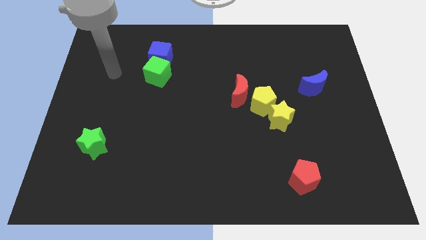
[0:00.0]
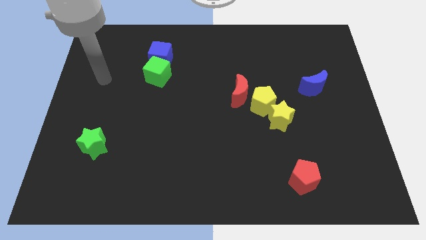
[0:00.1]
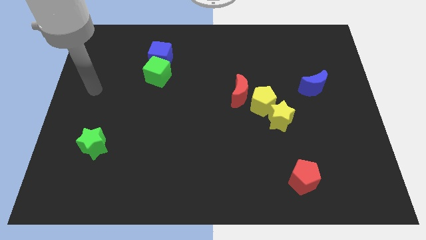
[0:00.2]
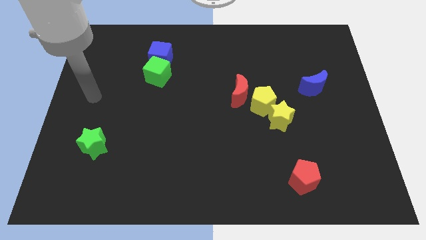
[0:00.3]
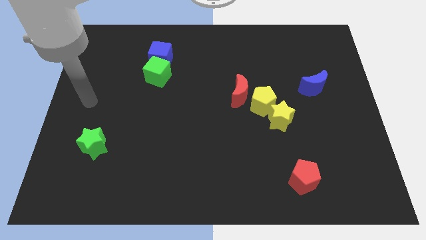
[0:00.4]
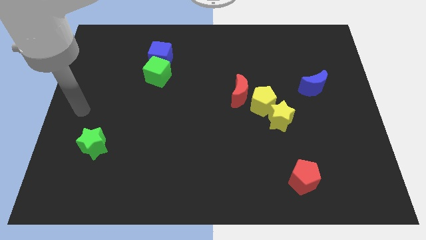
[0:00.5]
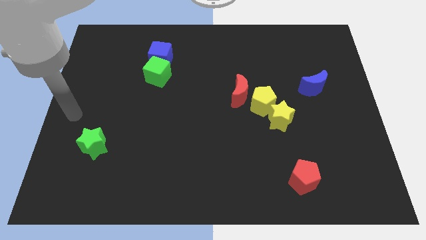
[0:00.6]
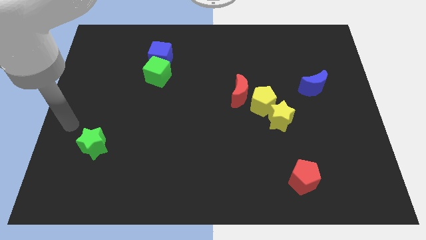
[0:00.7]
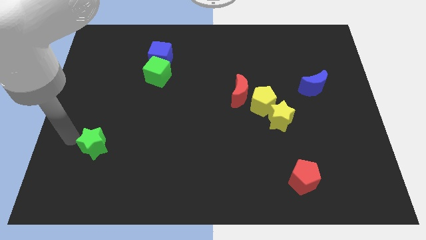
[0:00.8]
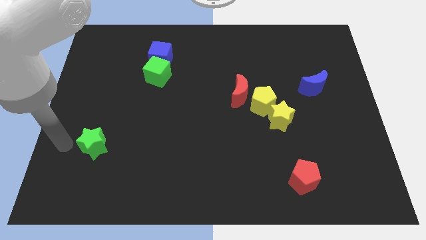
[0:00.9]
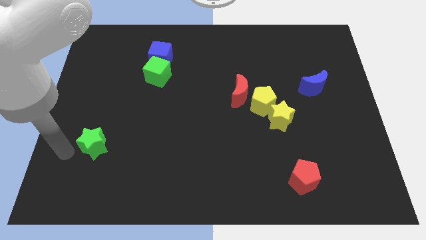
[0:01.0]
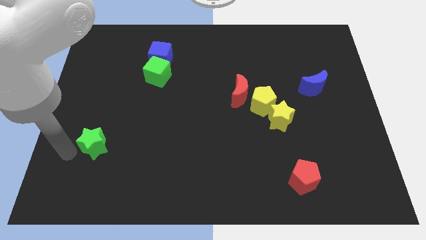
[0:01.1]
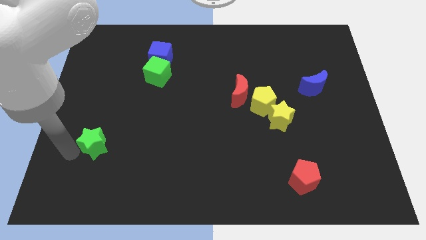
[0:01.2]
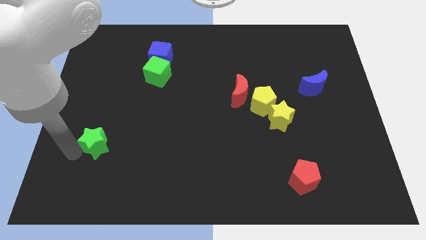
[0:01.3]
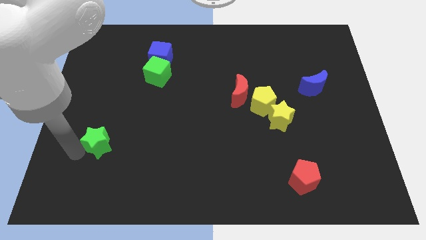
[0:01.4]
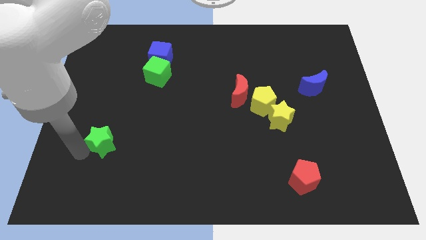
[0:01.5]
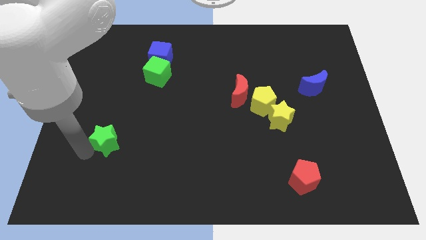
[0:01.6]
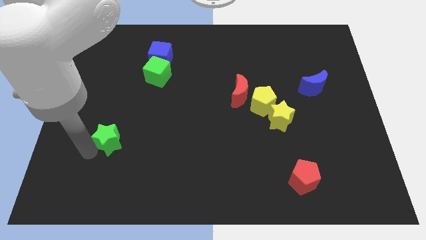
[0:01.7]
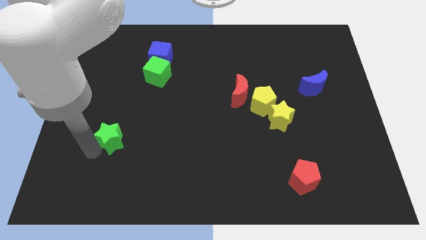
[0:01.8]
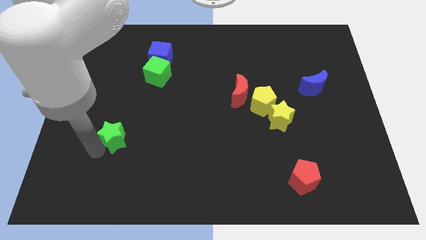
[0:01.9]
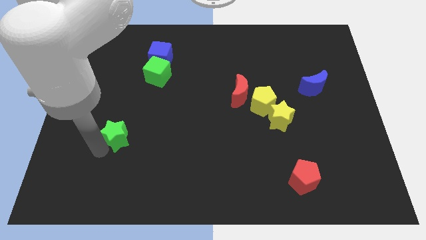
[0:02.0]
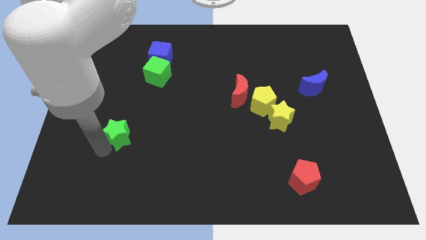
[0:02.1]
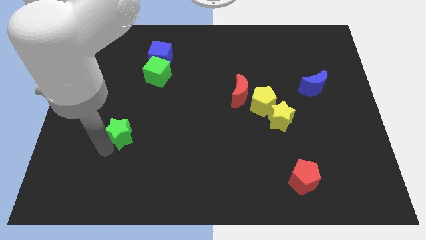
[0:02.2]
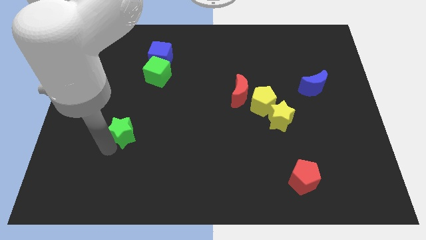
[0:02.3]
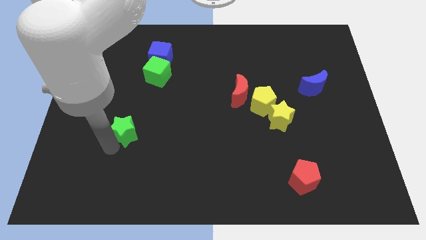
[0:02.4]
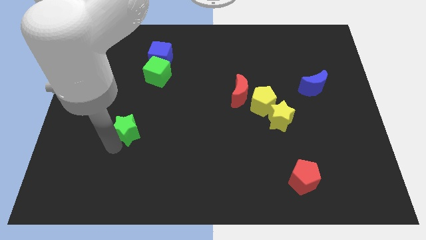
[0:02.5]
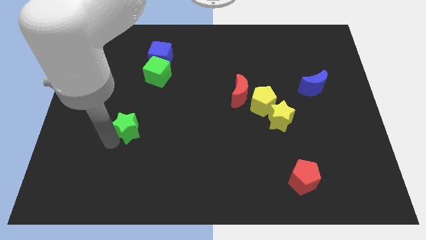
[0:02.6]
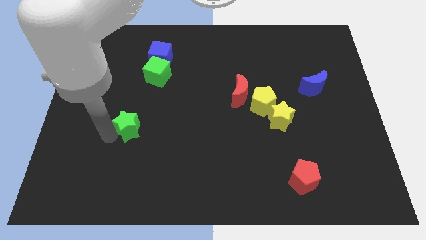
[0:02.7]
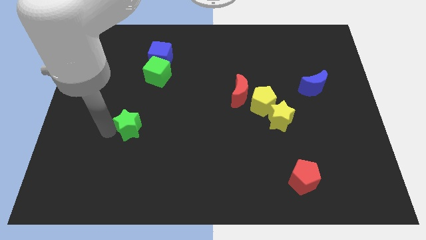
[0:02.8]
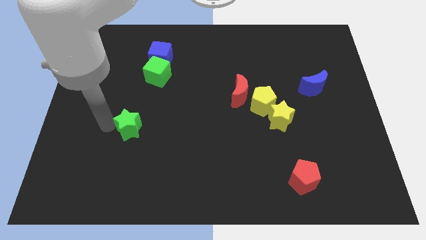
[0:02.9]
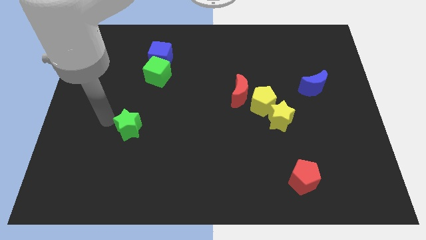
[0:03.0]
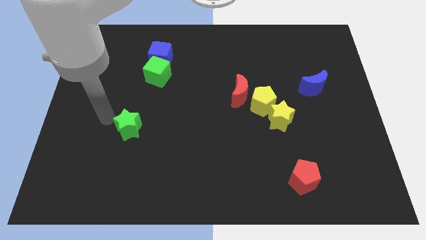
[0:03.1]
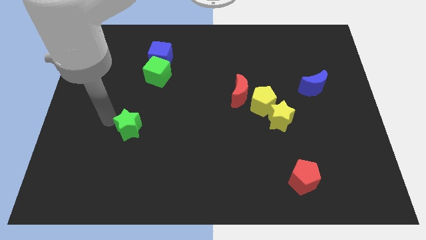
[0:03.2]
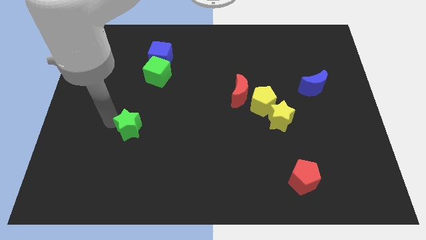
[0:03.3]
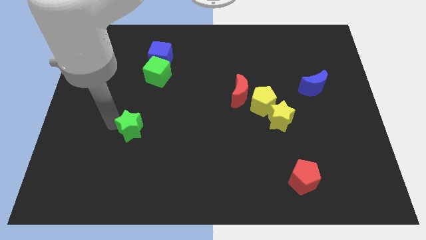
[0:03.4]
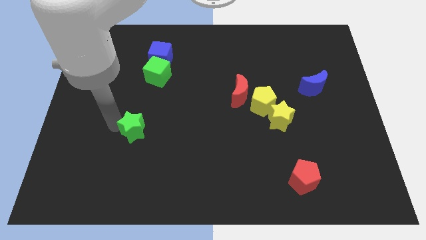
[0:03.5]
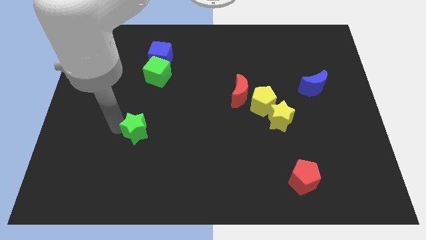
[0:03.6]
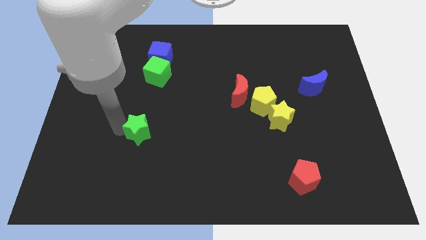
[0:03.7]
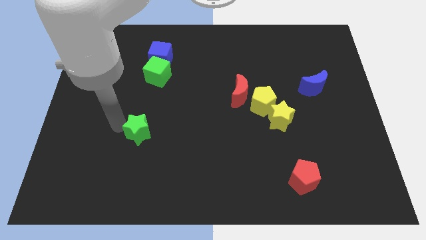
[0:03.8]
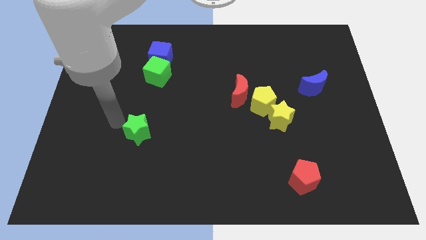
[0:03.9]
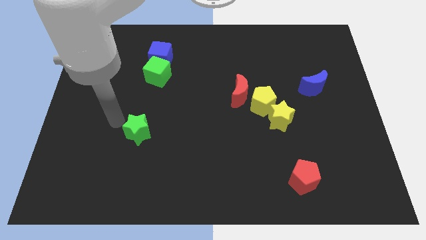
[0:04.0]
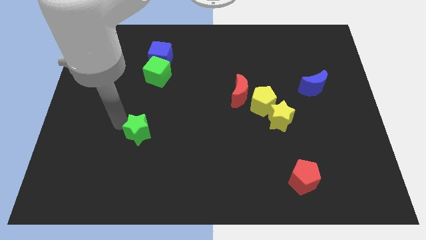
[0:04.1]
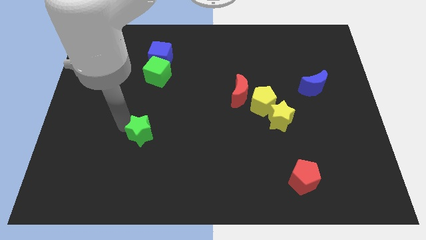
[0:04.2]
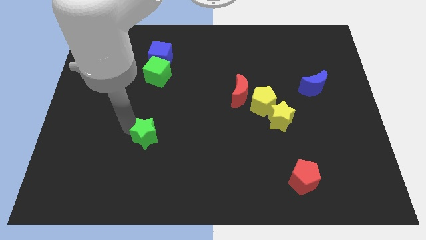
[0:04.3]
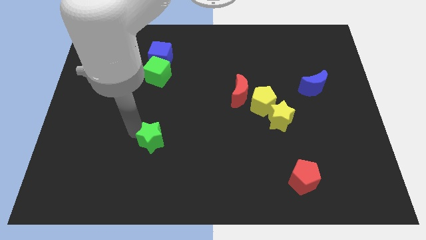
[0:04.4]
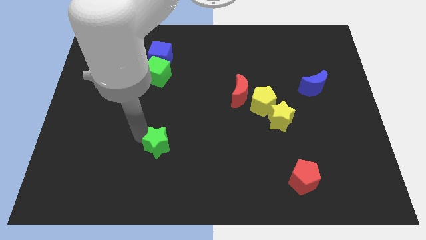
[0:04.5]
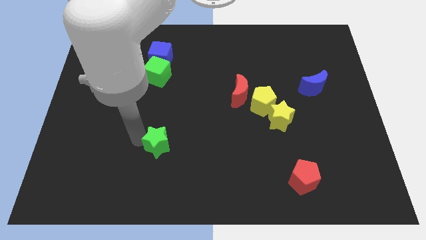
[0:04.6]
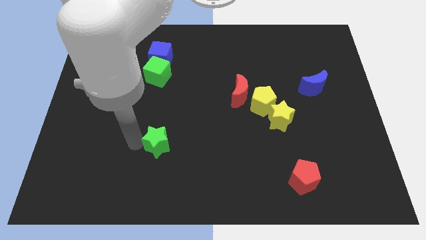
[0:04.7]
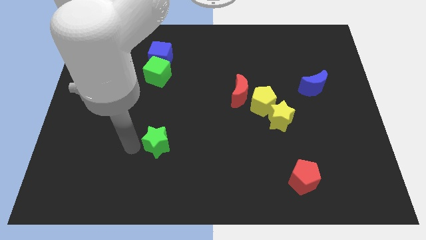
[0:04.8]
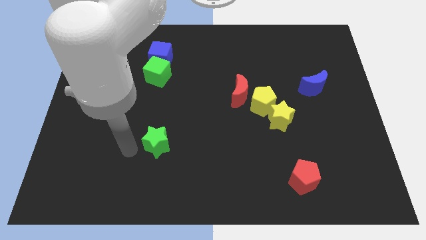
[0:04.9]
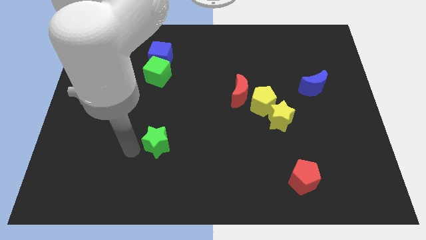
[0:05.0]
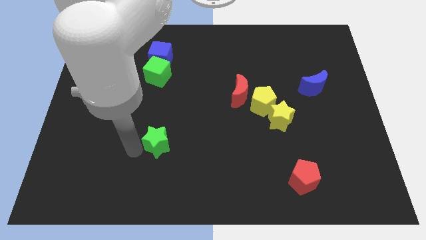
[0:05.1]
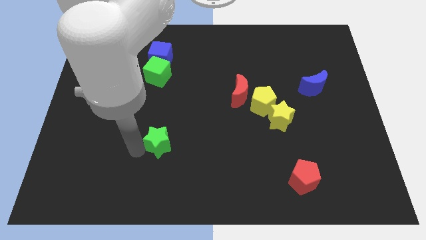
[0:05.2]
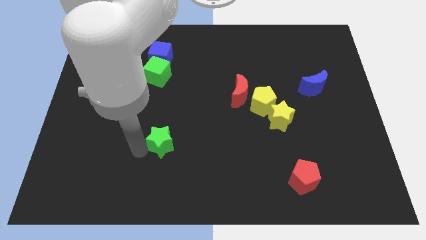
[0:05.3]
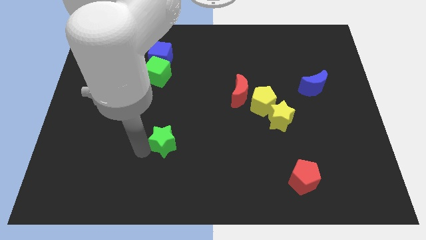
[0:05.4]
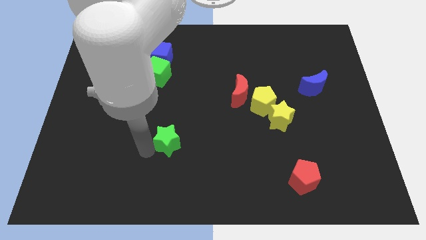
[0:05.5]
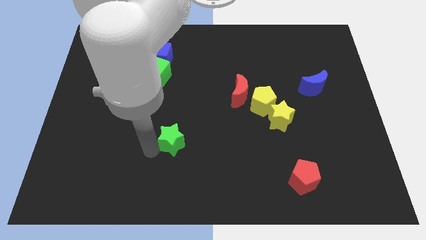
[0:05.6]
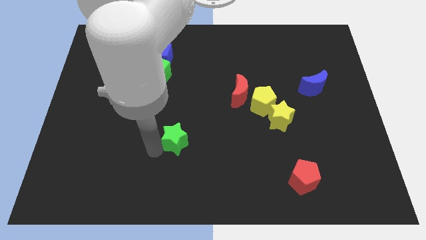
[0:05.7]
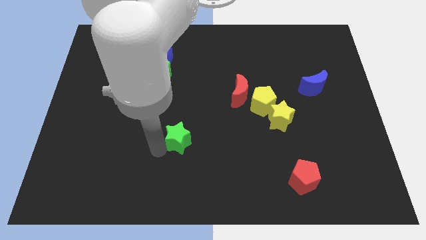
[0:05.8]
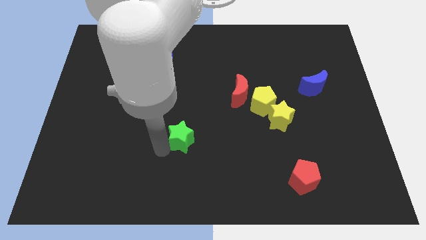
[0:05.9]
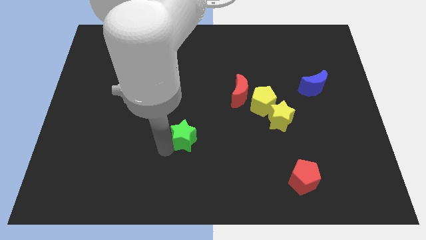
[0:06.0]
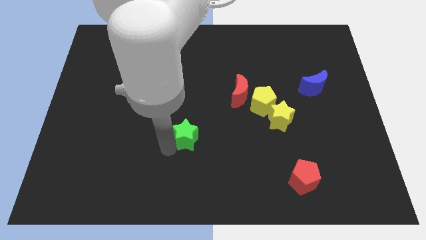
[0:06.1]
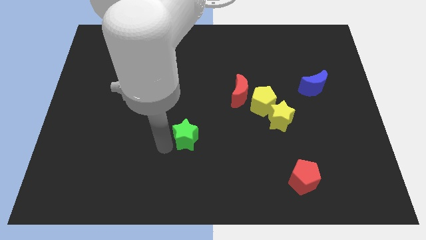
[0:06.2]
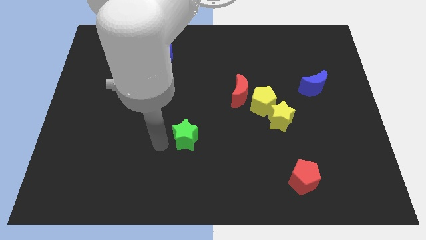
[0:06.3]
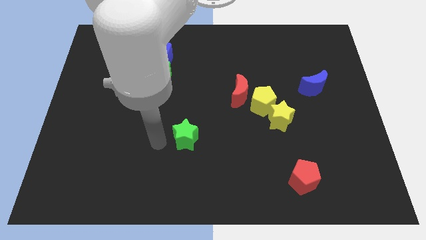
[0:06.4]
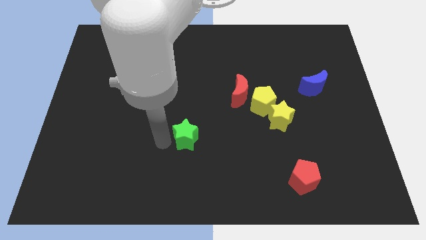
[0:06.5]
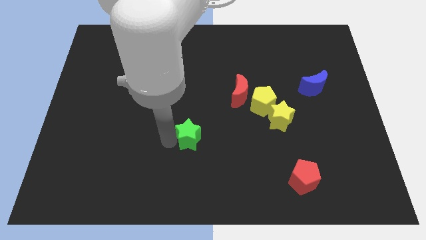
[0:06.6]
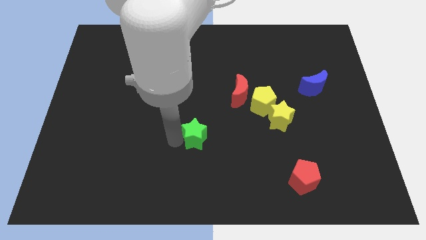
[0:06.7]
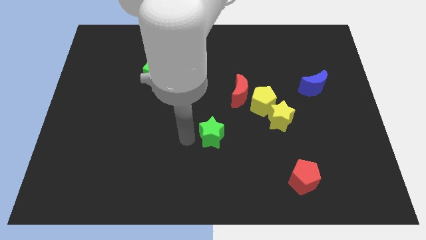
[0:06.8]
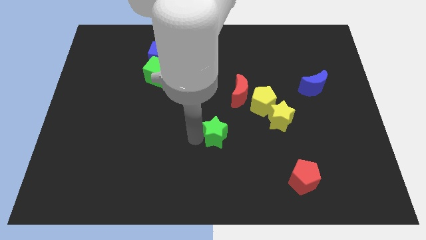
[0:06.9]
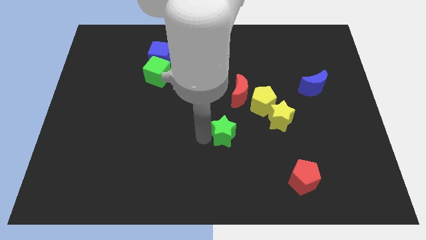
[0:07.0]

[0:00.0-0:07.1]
move the green star to the bottom of the red moon
